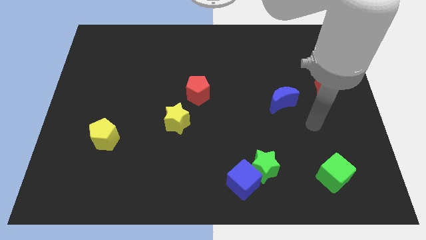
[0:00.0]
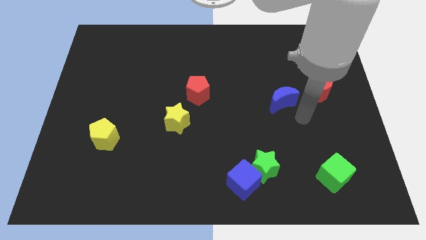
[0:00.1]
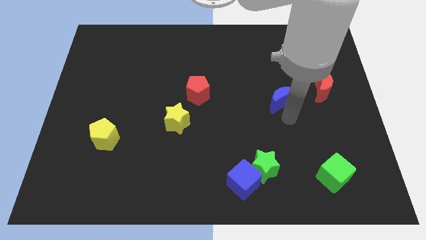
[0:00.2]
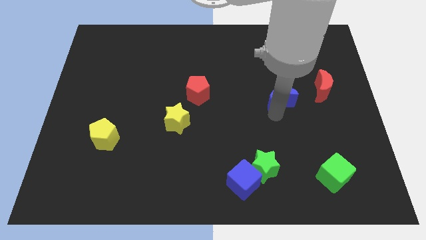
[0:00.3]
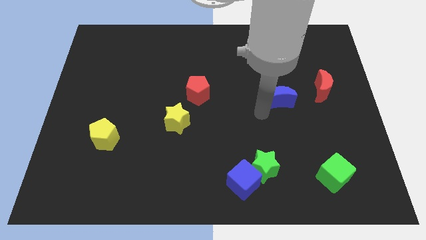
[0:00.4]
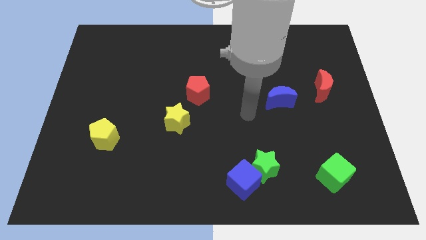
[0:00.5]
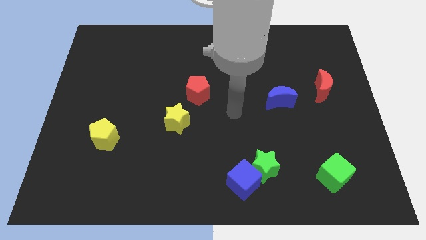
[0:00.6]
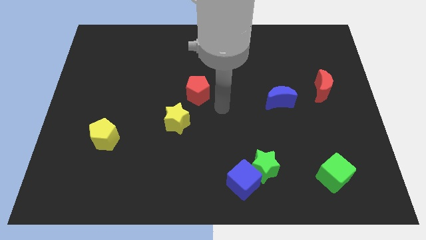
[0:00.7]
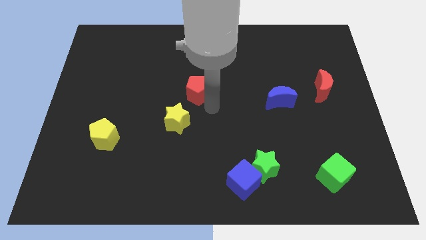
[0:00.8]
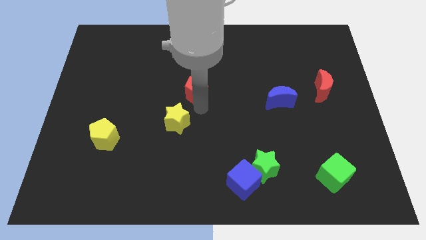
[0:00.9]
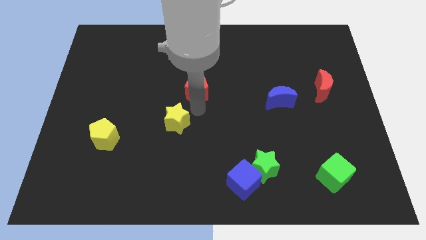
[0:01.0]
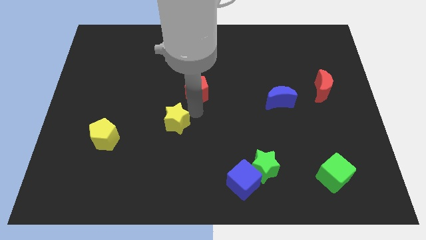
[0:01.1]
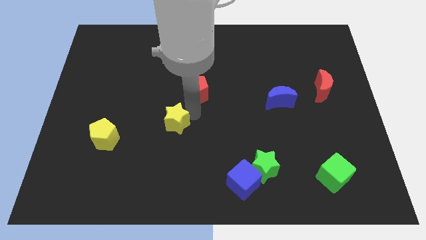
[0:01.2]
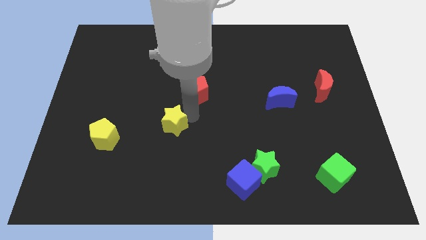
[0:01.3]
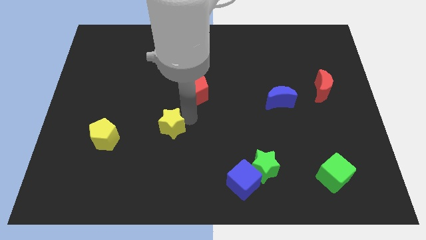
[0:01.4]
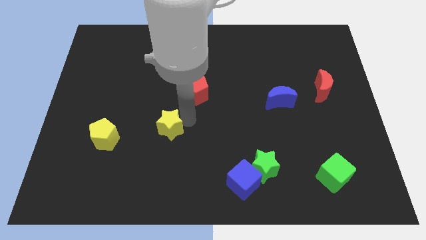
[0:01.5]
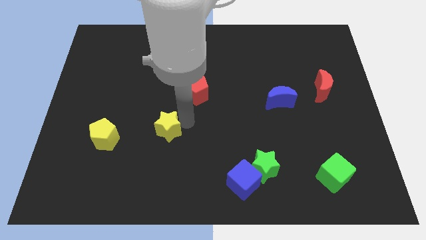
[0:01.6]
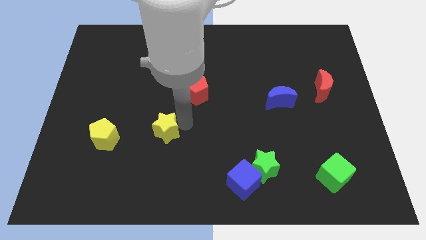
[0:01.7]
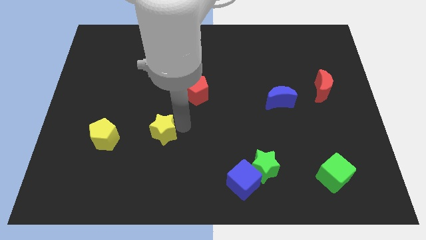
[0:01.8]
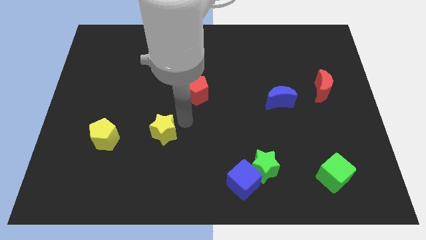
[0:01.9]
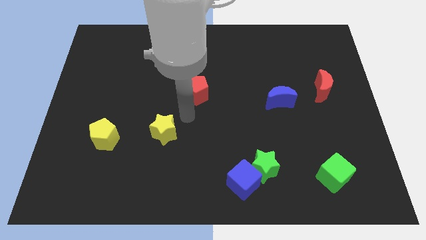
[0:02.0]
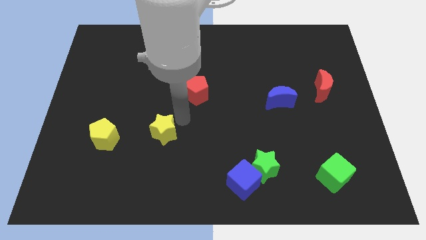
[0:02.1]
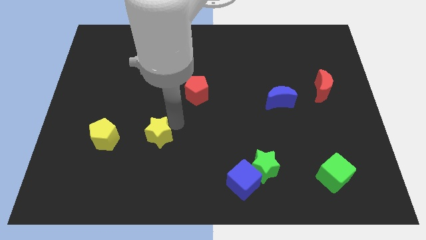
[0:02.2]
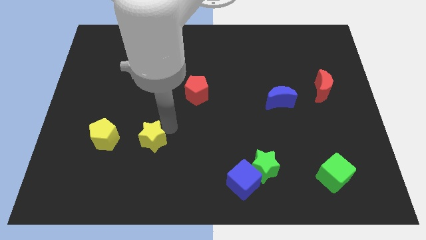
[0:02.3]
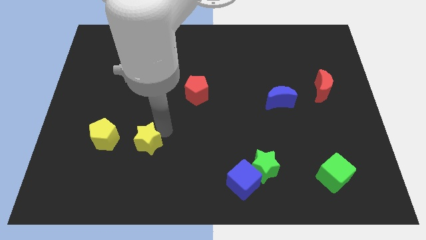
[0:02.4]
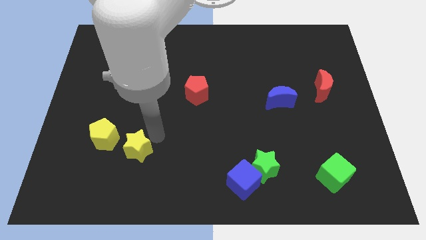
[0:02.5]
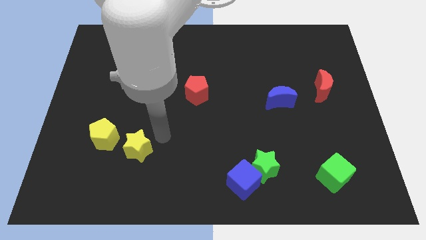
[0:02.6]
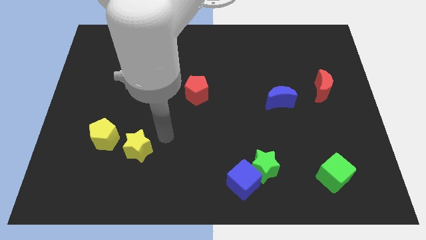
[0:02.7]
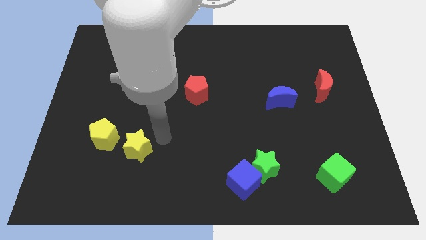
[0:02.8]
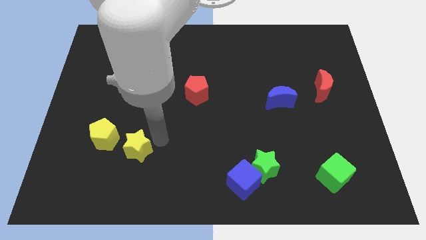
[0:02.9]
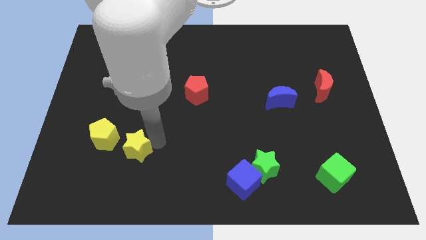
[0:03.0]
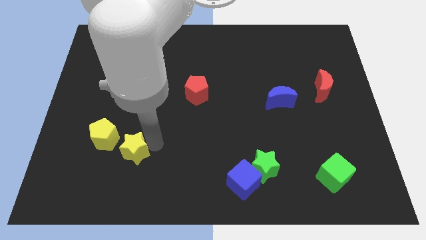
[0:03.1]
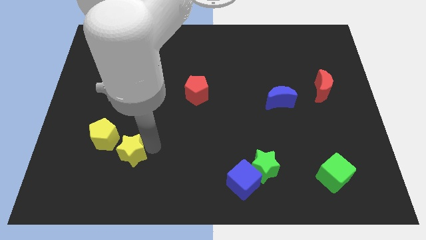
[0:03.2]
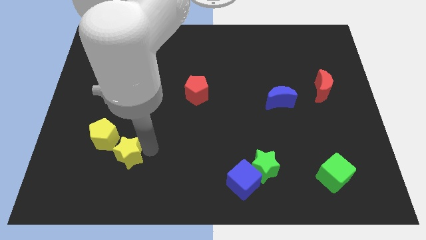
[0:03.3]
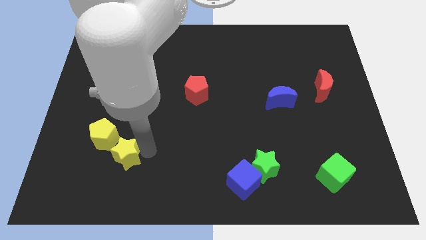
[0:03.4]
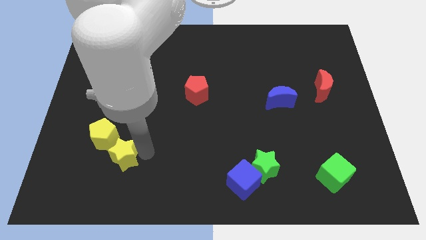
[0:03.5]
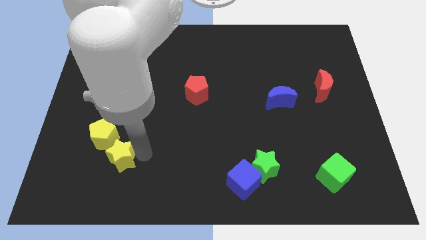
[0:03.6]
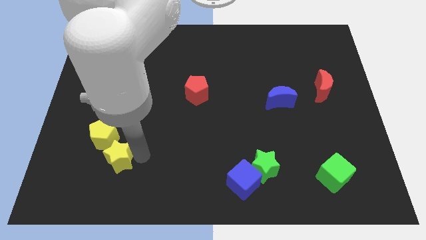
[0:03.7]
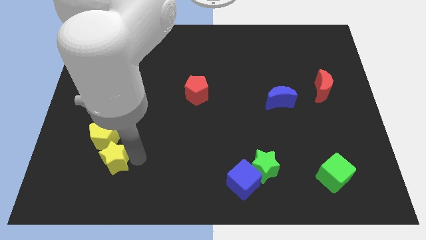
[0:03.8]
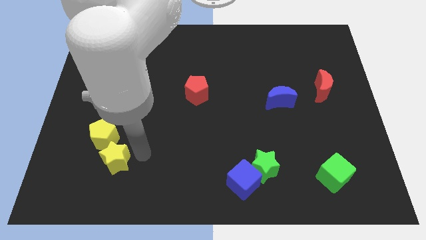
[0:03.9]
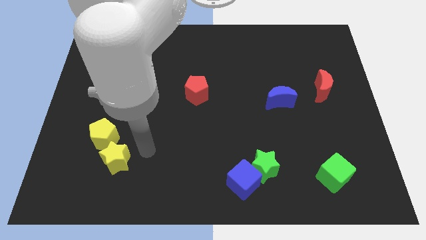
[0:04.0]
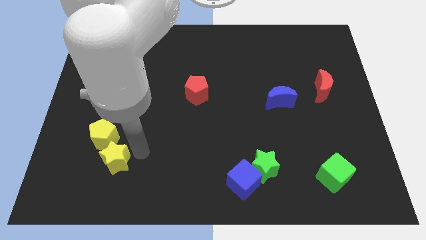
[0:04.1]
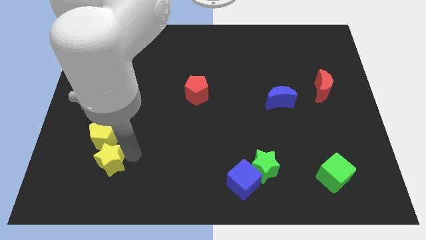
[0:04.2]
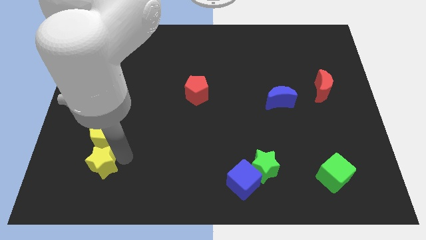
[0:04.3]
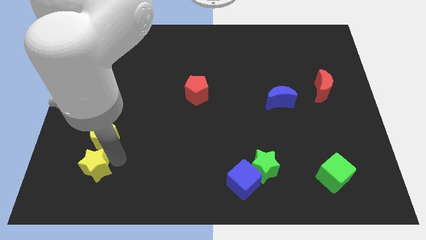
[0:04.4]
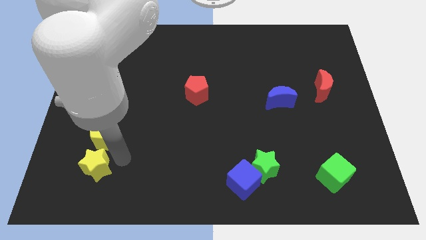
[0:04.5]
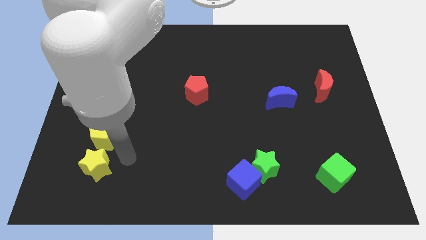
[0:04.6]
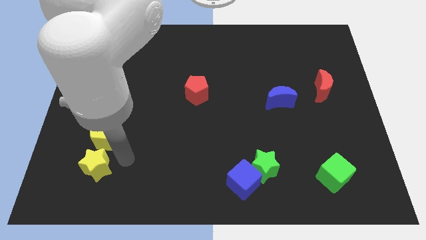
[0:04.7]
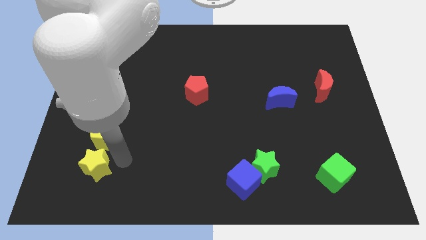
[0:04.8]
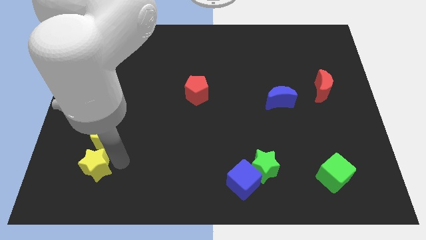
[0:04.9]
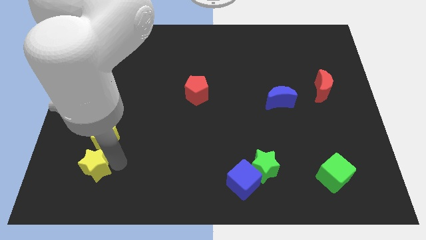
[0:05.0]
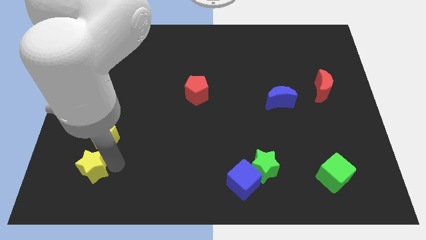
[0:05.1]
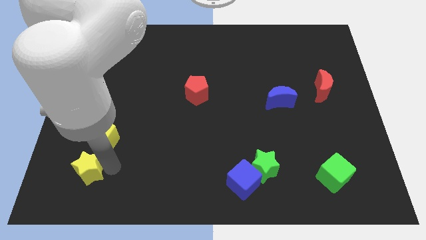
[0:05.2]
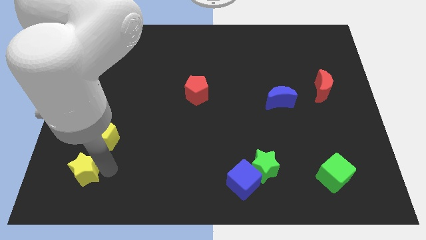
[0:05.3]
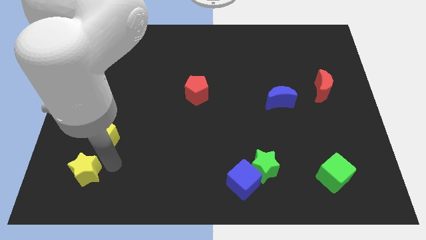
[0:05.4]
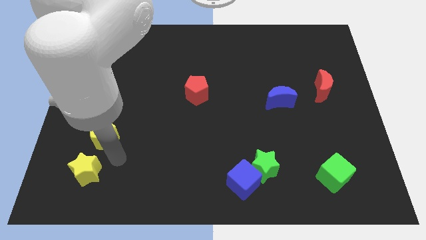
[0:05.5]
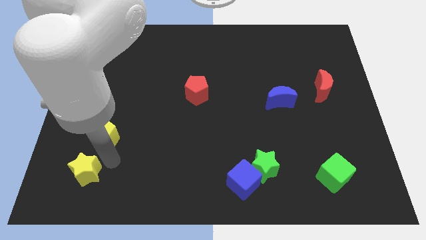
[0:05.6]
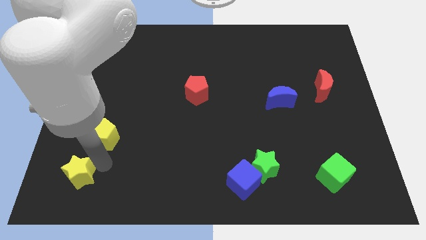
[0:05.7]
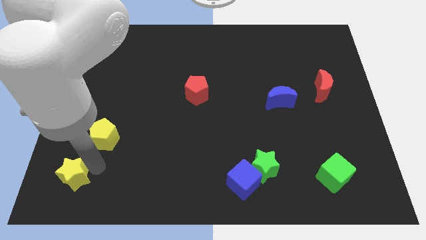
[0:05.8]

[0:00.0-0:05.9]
slide the yellow star to the bottom left corner
